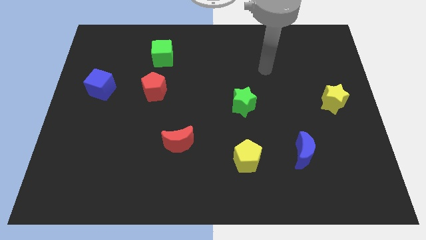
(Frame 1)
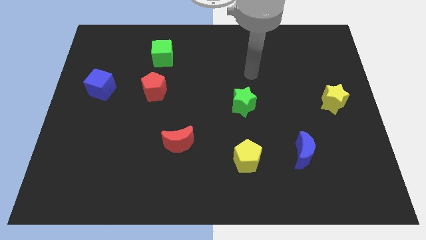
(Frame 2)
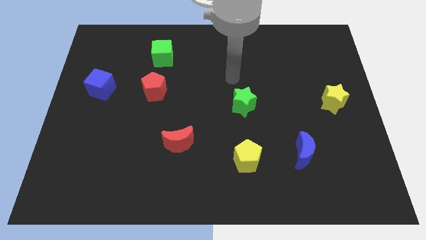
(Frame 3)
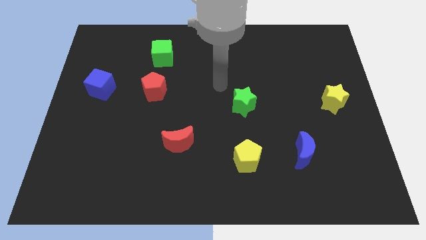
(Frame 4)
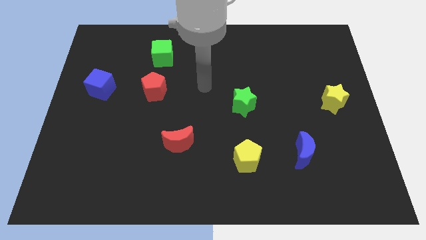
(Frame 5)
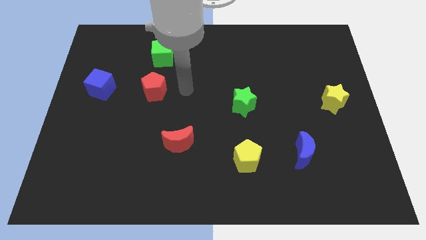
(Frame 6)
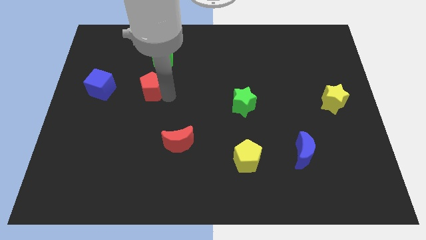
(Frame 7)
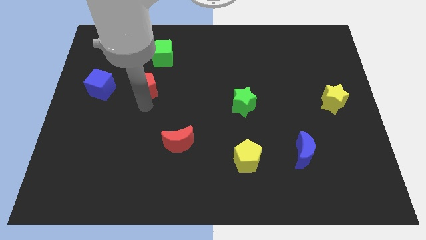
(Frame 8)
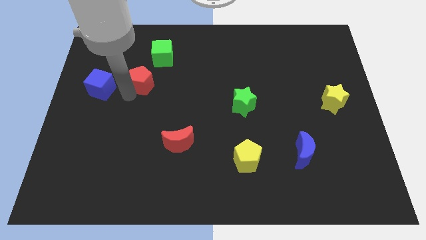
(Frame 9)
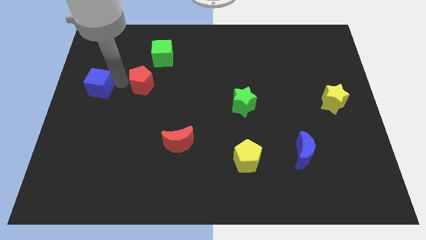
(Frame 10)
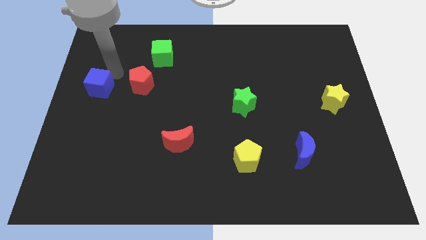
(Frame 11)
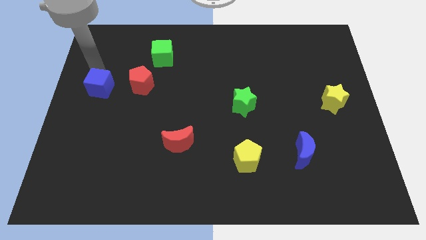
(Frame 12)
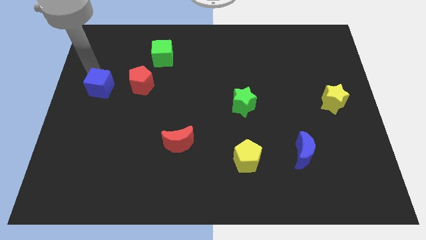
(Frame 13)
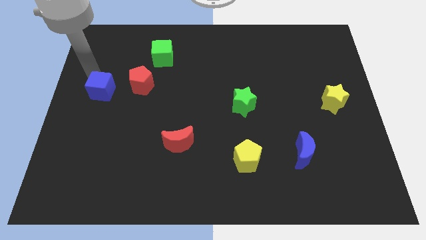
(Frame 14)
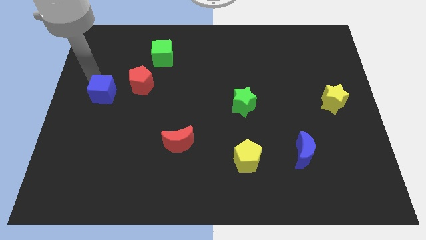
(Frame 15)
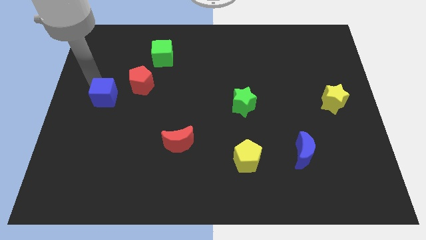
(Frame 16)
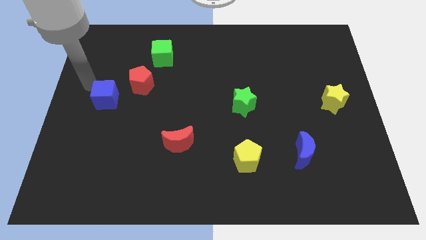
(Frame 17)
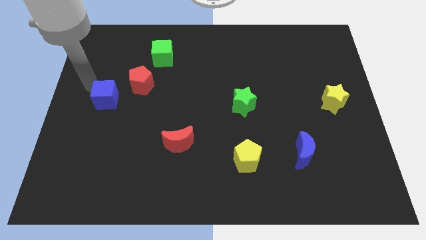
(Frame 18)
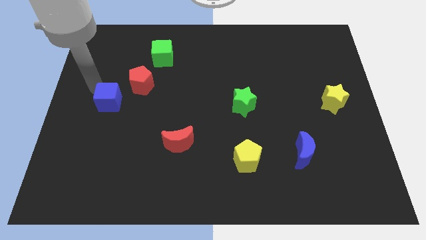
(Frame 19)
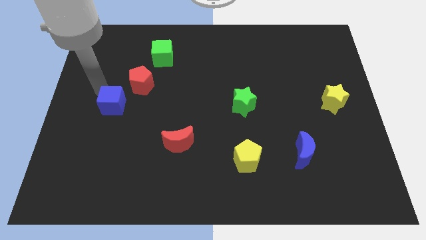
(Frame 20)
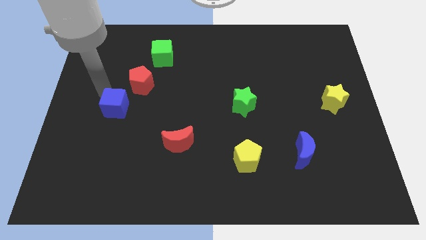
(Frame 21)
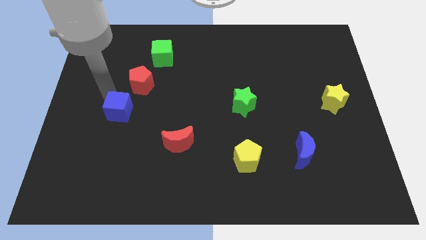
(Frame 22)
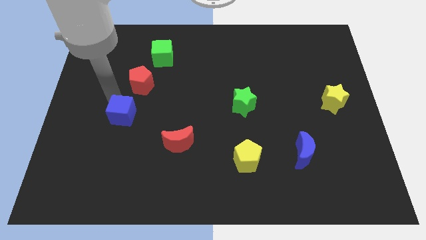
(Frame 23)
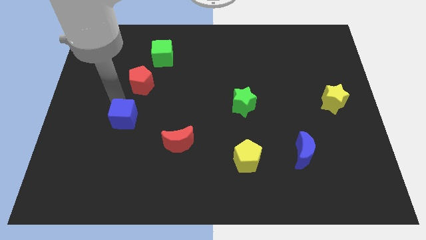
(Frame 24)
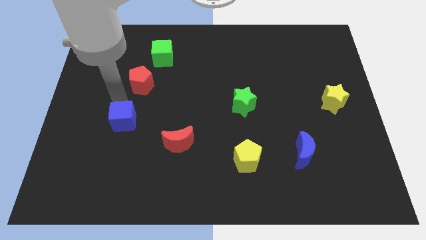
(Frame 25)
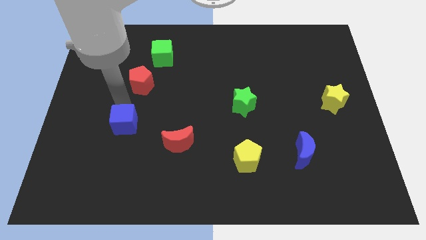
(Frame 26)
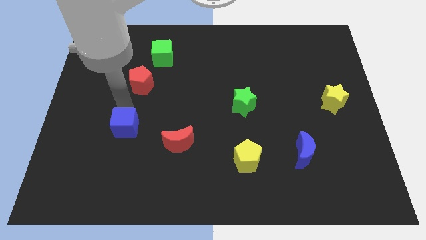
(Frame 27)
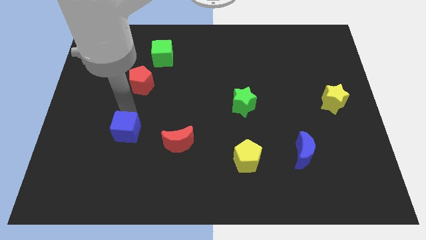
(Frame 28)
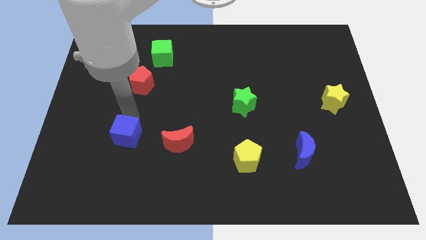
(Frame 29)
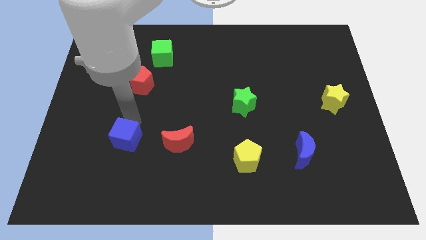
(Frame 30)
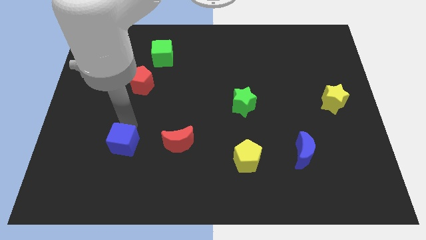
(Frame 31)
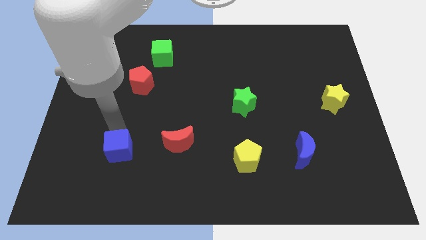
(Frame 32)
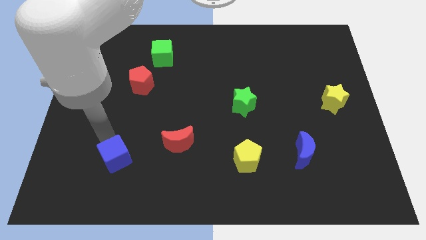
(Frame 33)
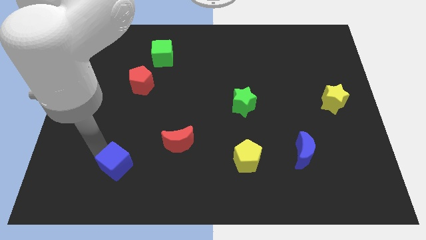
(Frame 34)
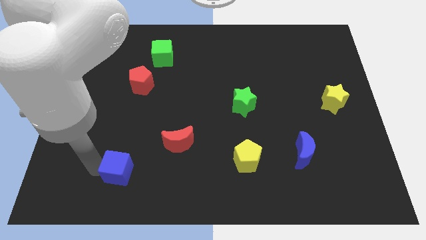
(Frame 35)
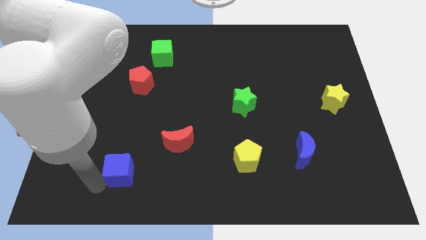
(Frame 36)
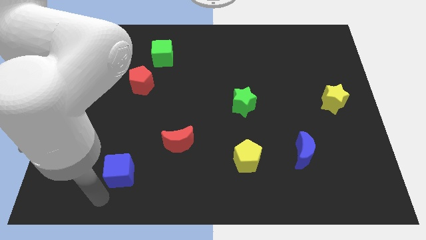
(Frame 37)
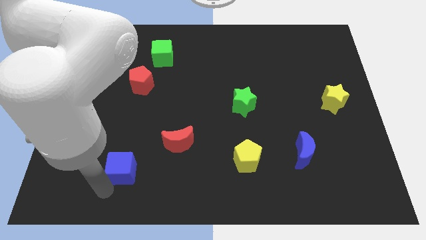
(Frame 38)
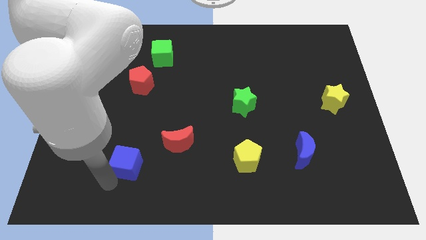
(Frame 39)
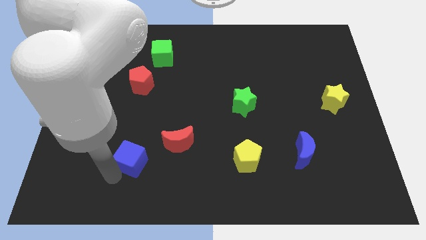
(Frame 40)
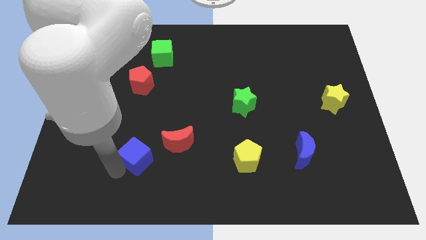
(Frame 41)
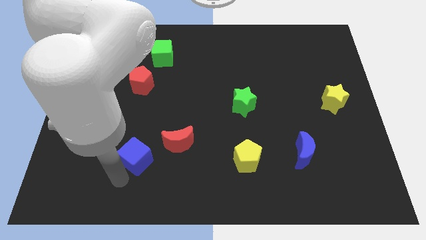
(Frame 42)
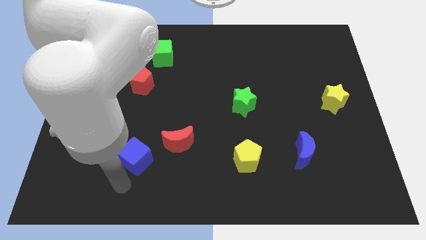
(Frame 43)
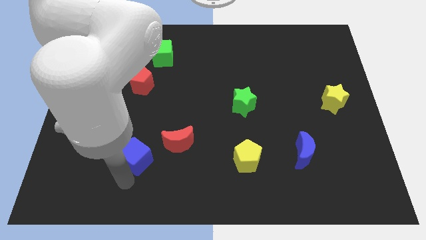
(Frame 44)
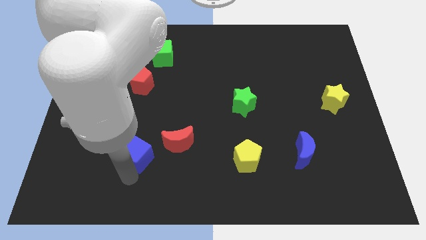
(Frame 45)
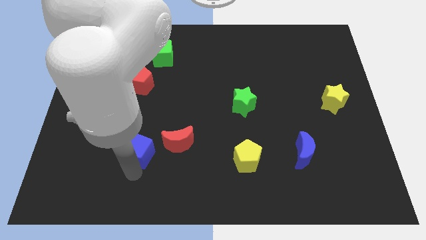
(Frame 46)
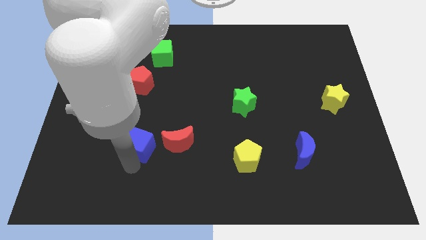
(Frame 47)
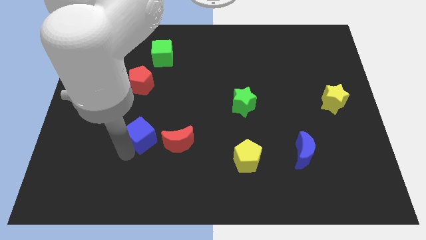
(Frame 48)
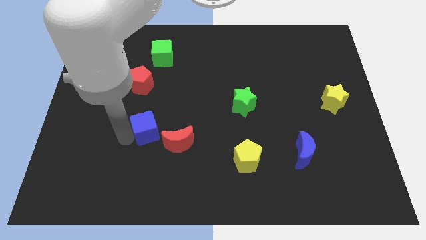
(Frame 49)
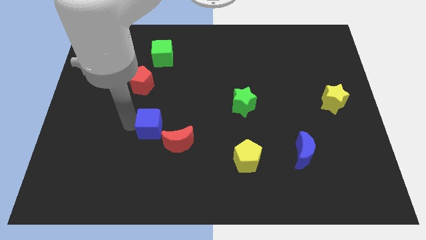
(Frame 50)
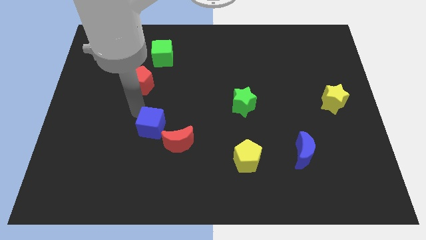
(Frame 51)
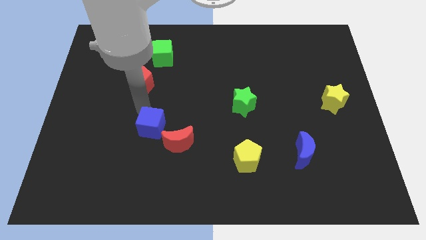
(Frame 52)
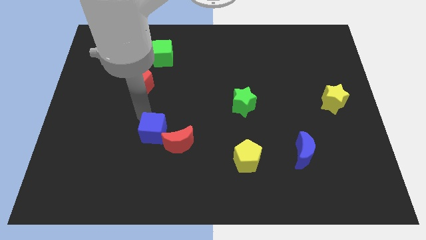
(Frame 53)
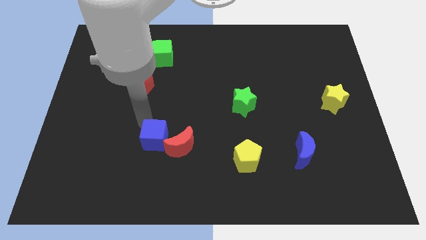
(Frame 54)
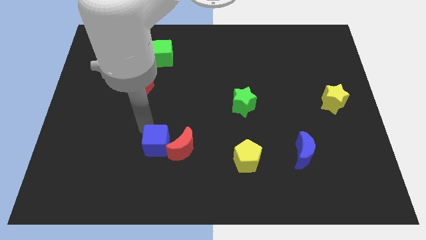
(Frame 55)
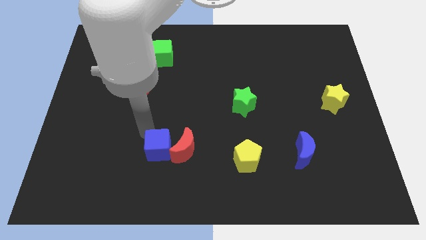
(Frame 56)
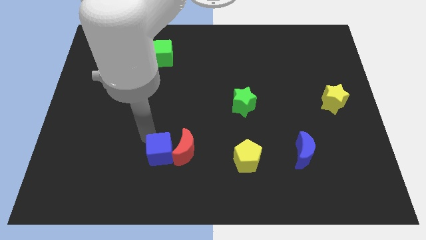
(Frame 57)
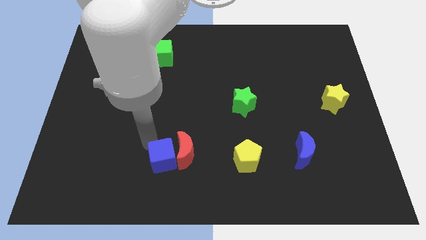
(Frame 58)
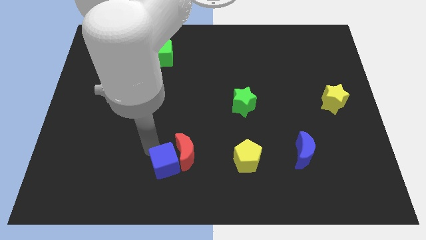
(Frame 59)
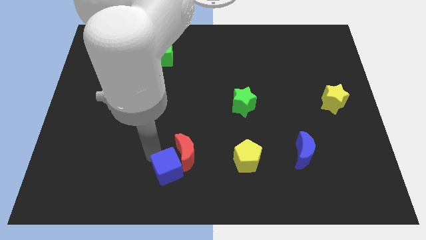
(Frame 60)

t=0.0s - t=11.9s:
put the blue cube to the bottom side
